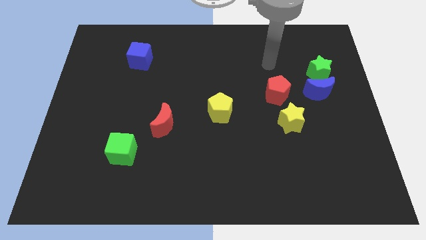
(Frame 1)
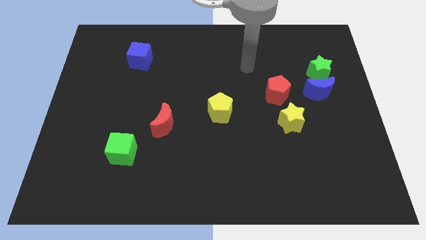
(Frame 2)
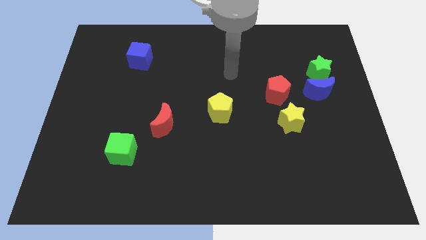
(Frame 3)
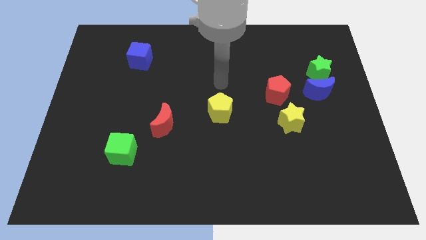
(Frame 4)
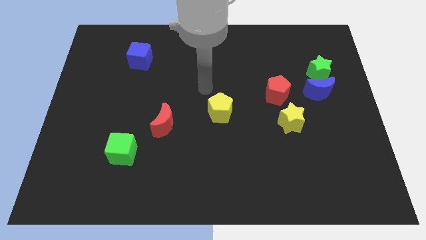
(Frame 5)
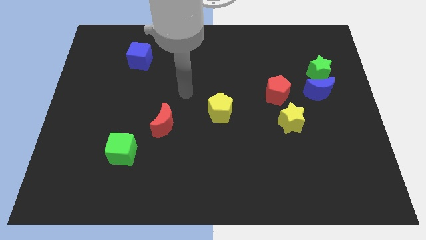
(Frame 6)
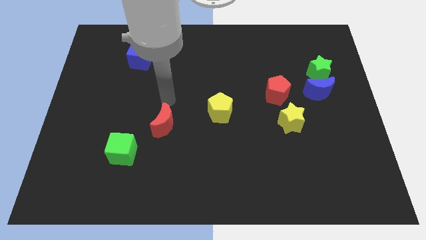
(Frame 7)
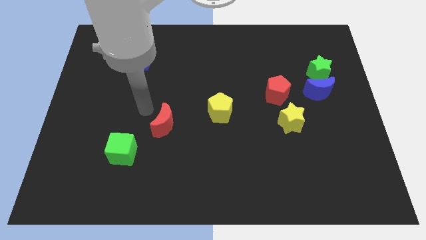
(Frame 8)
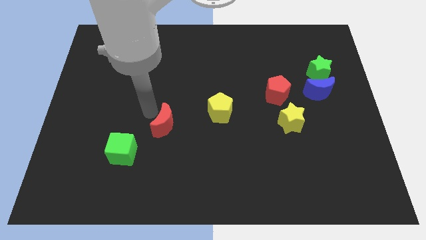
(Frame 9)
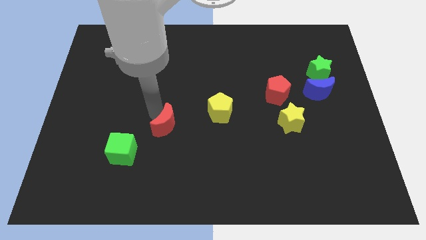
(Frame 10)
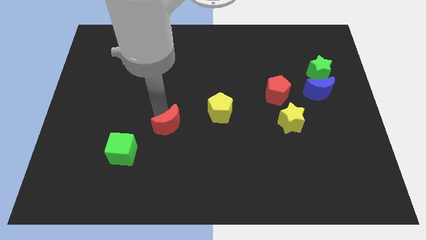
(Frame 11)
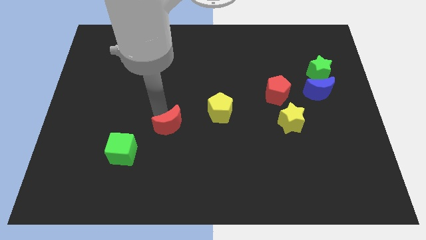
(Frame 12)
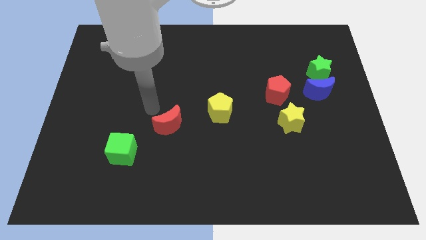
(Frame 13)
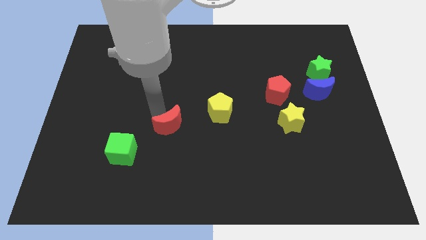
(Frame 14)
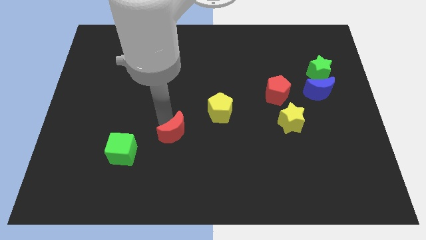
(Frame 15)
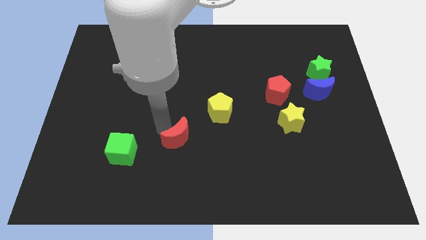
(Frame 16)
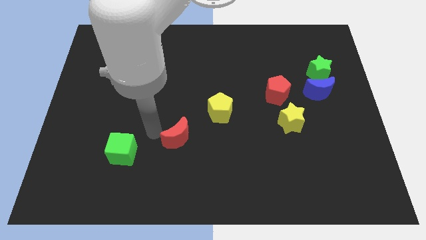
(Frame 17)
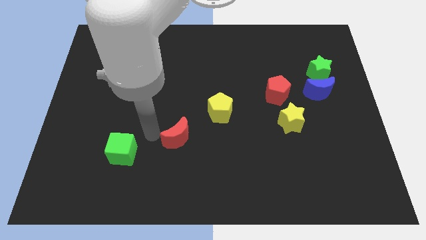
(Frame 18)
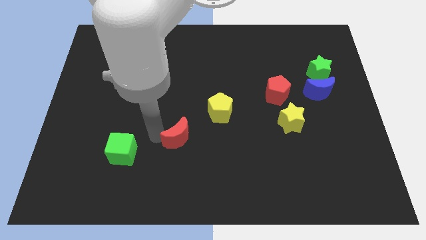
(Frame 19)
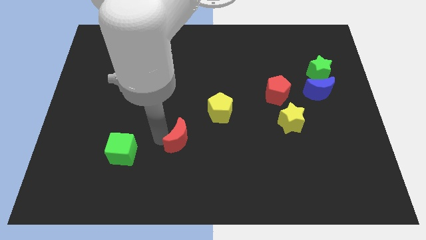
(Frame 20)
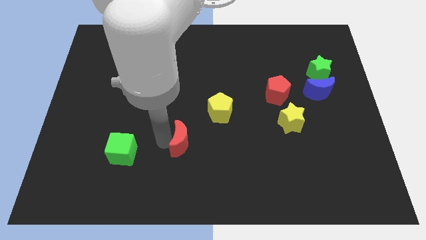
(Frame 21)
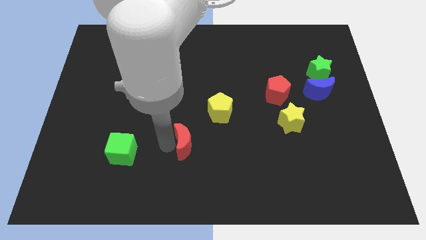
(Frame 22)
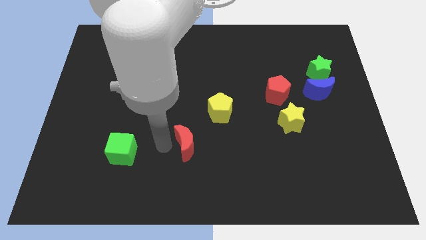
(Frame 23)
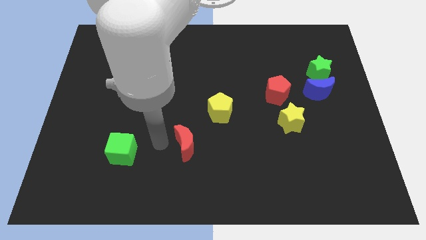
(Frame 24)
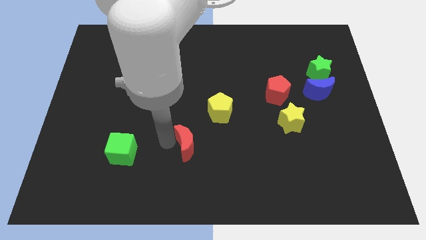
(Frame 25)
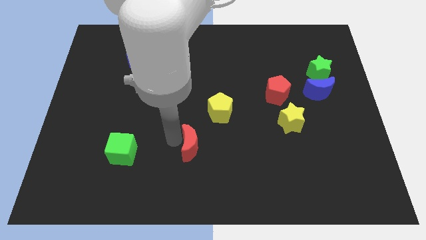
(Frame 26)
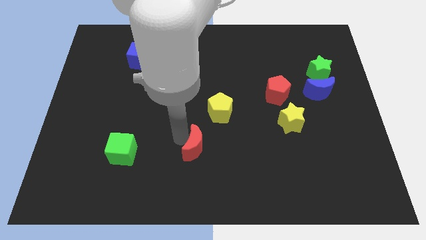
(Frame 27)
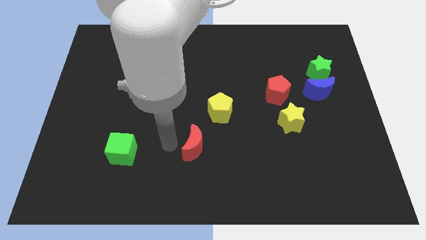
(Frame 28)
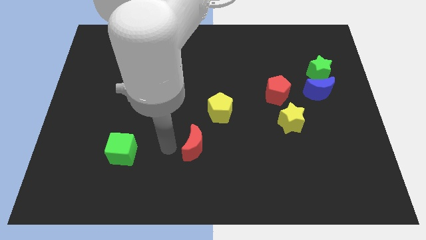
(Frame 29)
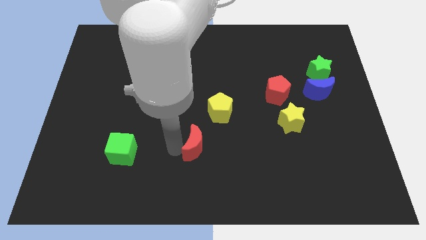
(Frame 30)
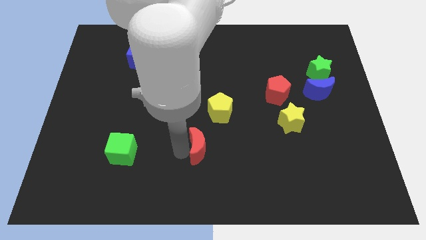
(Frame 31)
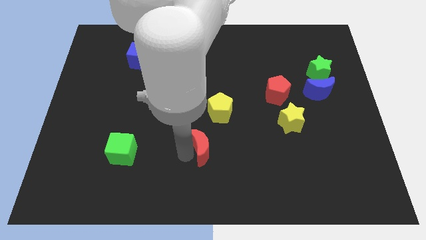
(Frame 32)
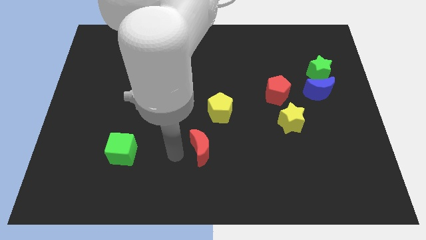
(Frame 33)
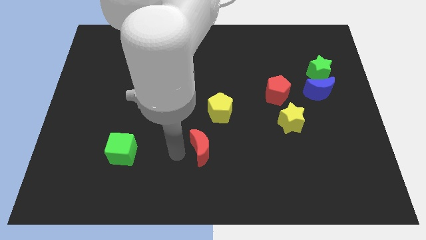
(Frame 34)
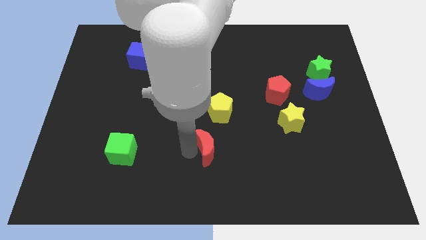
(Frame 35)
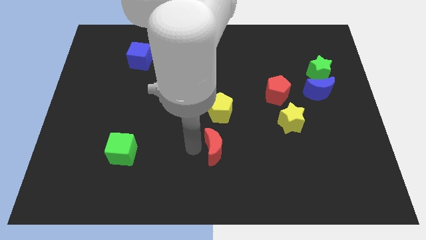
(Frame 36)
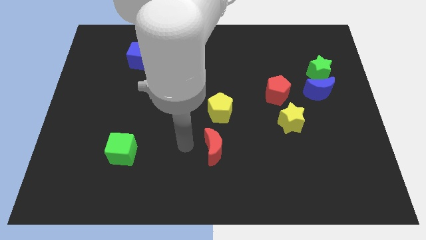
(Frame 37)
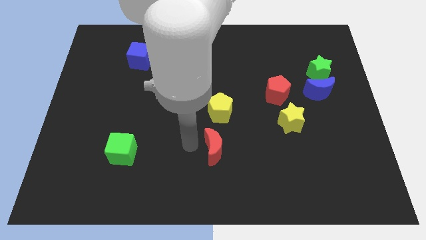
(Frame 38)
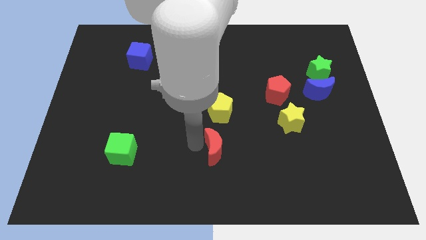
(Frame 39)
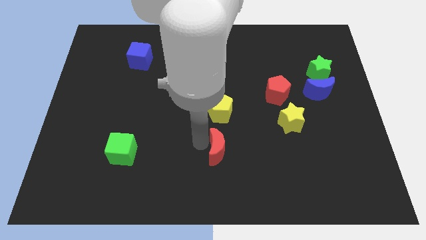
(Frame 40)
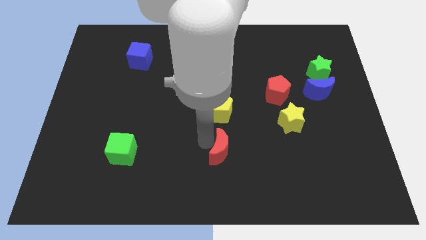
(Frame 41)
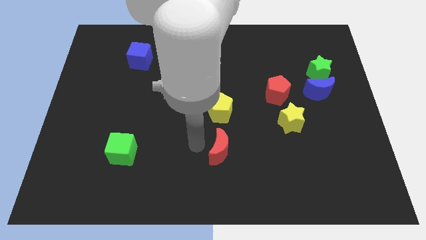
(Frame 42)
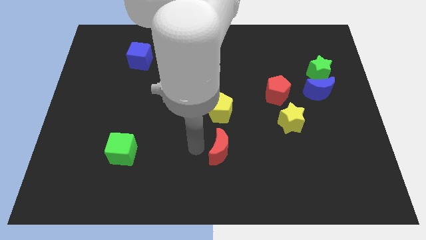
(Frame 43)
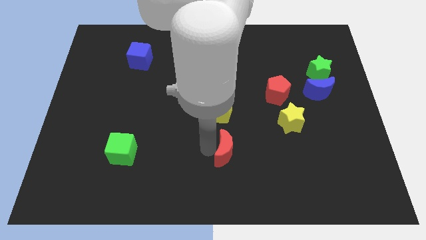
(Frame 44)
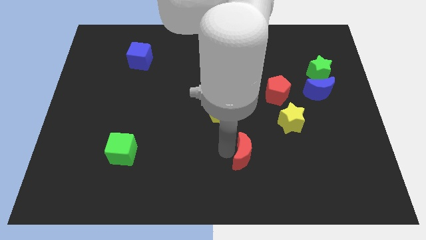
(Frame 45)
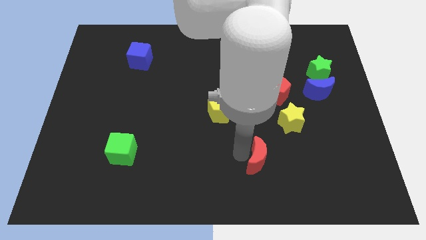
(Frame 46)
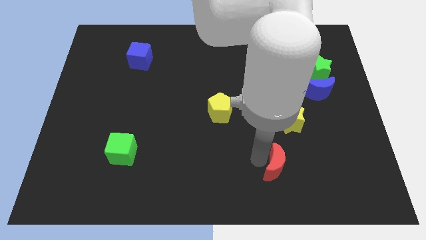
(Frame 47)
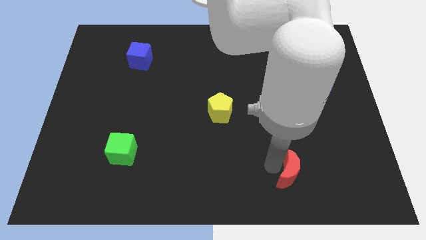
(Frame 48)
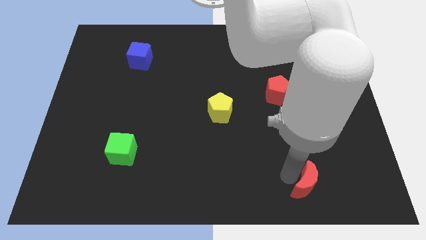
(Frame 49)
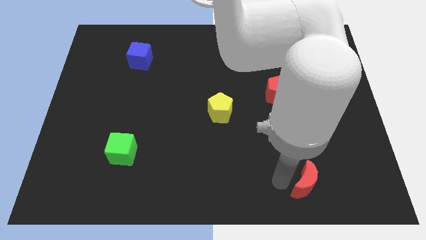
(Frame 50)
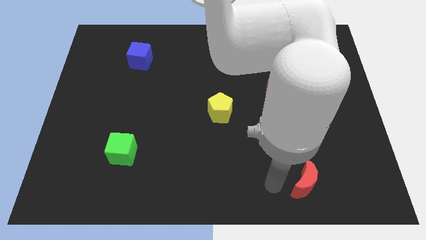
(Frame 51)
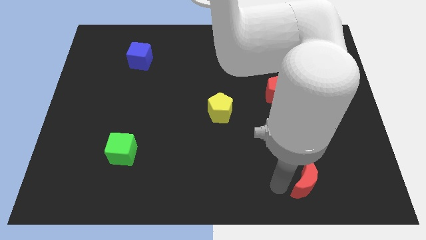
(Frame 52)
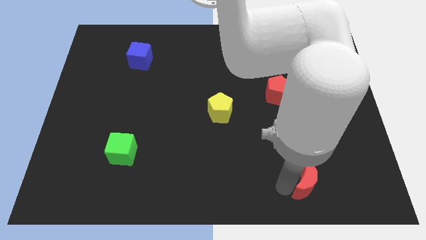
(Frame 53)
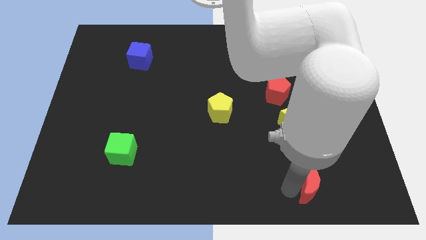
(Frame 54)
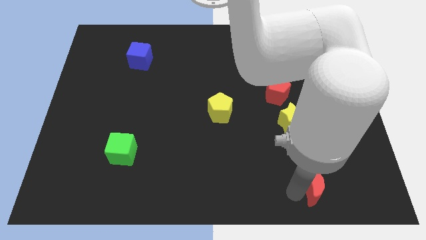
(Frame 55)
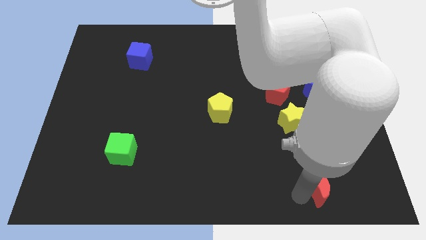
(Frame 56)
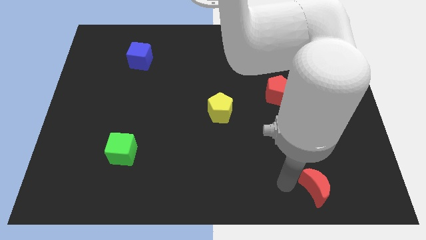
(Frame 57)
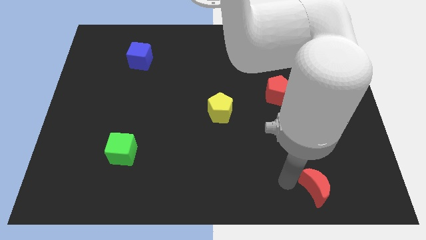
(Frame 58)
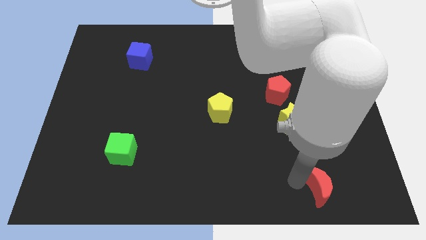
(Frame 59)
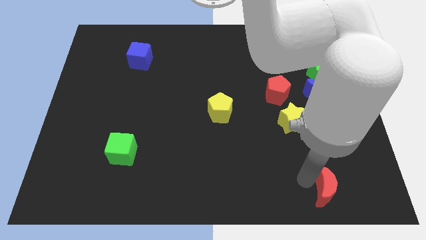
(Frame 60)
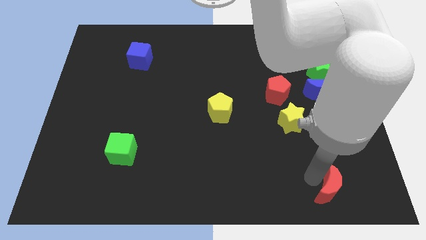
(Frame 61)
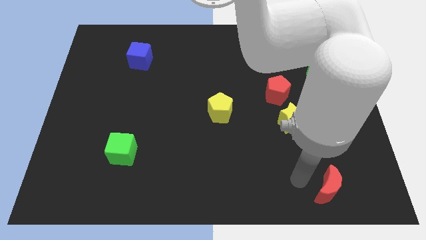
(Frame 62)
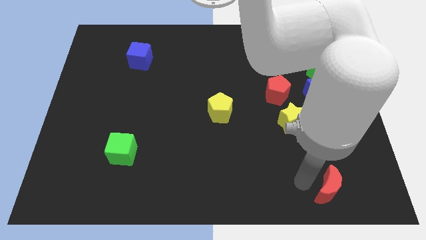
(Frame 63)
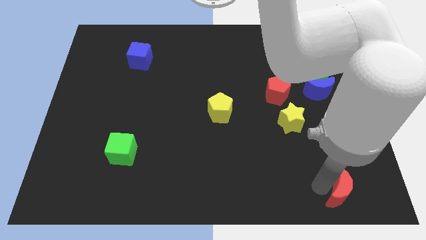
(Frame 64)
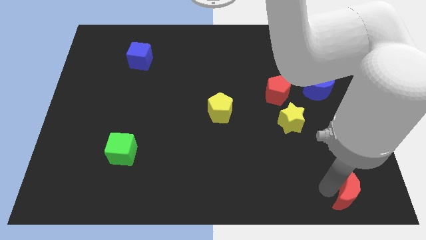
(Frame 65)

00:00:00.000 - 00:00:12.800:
slide the red moon to the lower right corner
